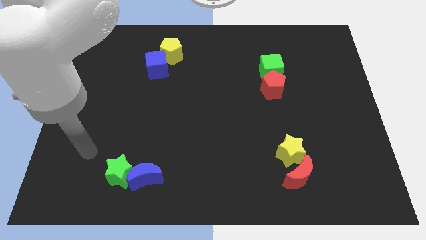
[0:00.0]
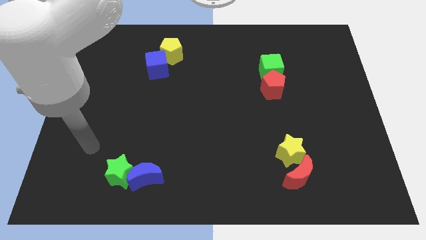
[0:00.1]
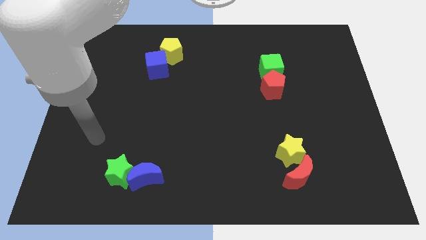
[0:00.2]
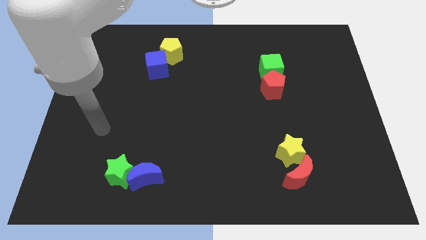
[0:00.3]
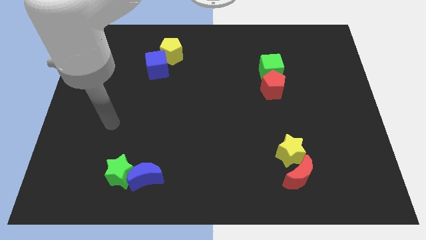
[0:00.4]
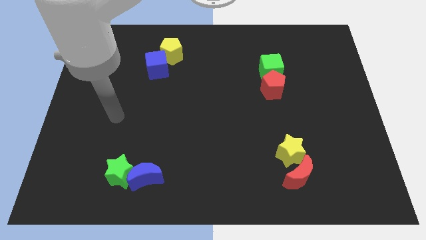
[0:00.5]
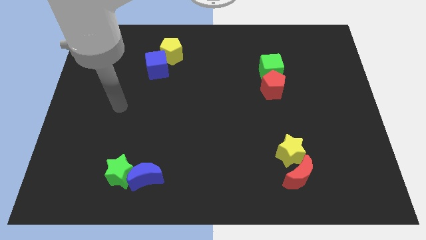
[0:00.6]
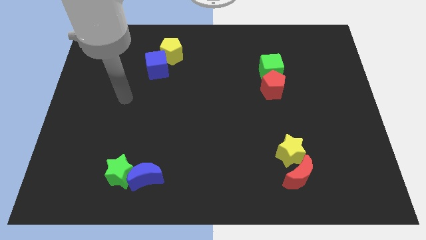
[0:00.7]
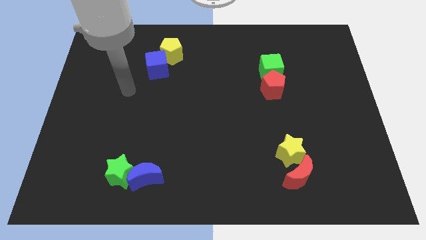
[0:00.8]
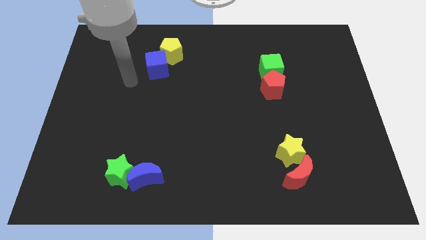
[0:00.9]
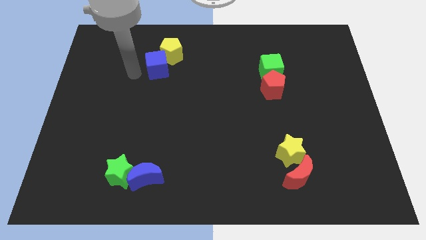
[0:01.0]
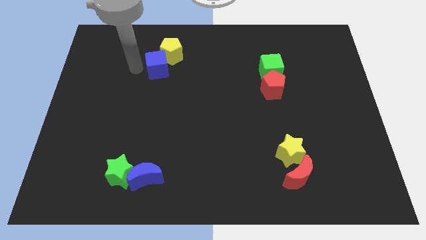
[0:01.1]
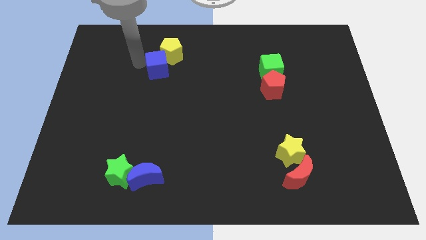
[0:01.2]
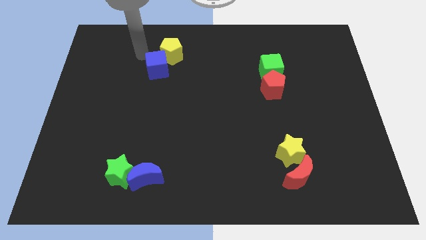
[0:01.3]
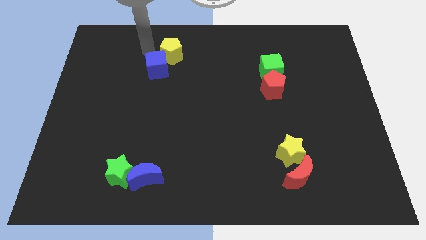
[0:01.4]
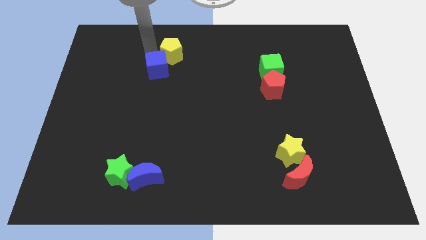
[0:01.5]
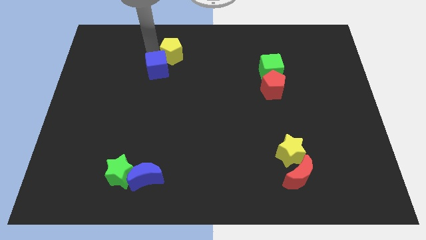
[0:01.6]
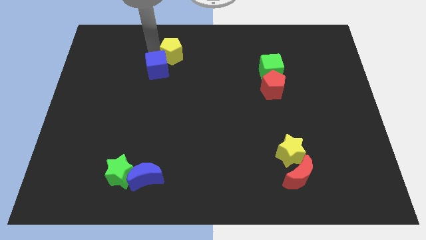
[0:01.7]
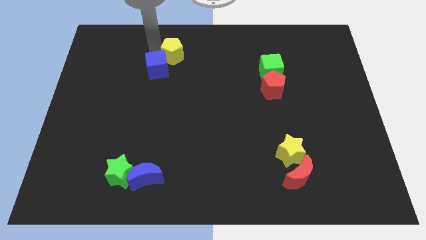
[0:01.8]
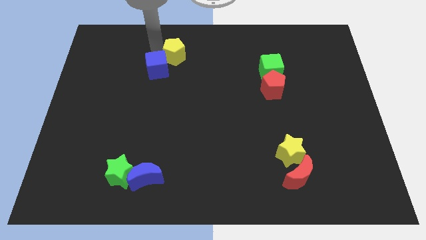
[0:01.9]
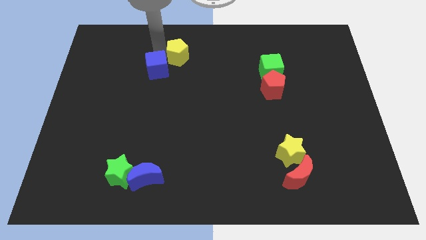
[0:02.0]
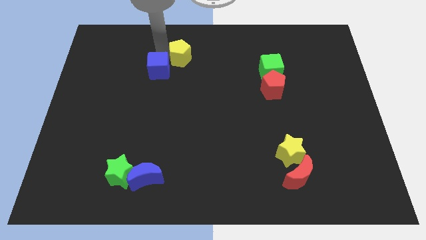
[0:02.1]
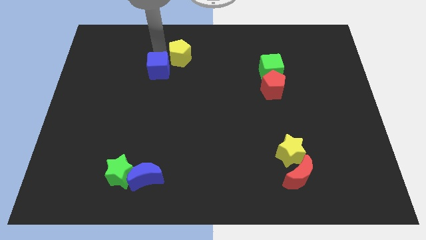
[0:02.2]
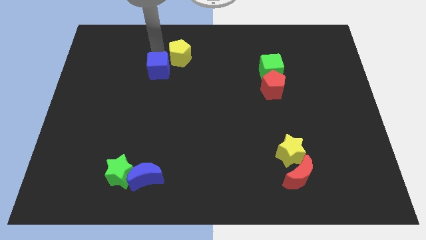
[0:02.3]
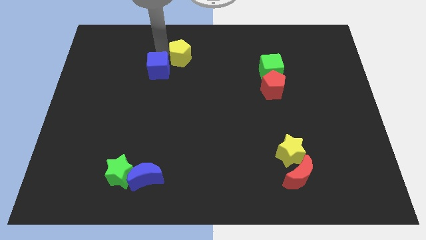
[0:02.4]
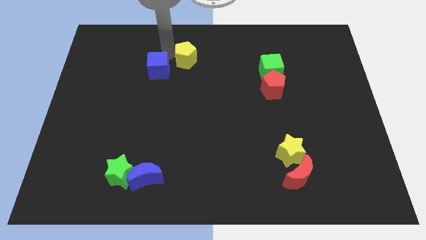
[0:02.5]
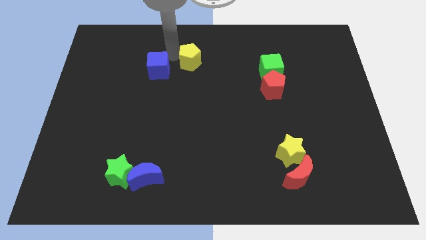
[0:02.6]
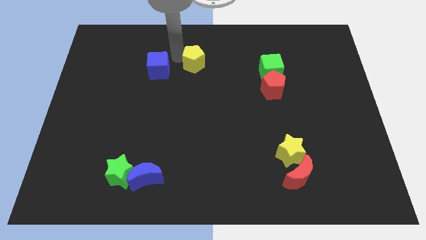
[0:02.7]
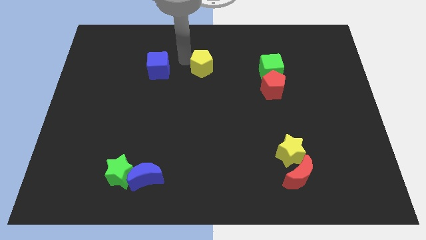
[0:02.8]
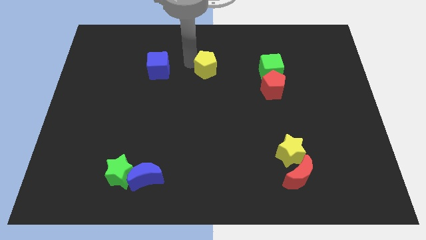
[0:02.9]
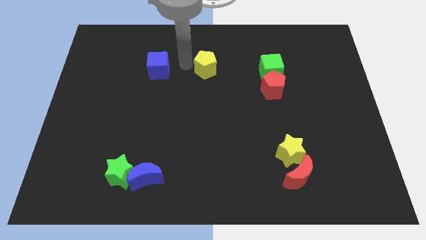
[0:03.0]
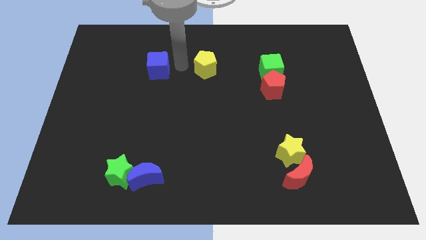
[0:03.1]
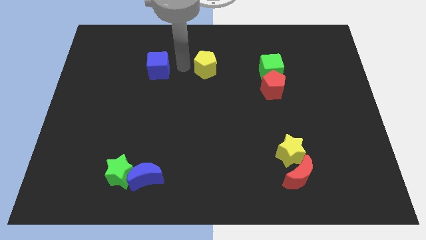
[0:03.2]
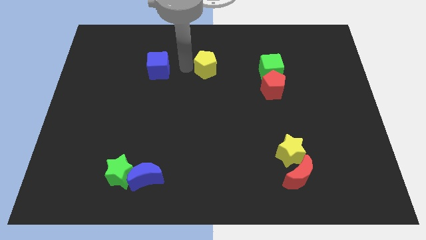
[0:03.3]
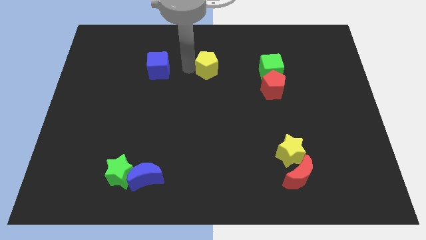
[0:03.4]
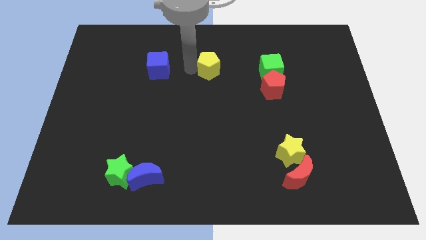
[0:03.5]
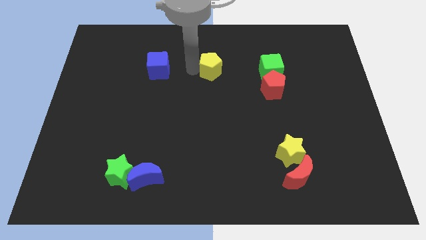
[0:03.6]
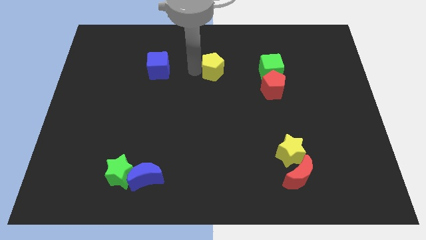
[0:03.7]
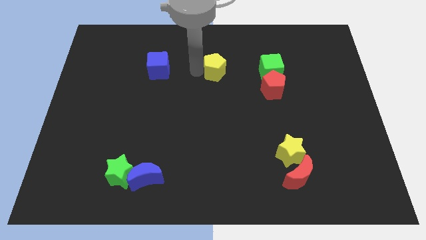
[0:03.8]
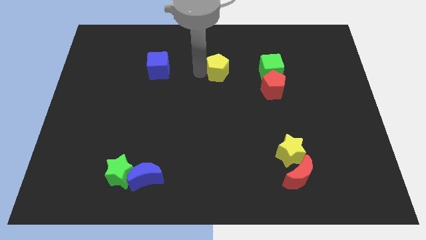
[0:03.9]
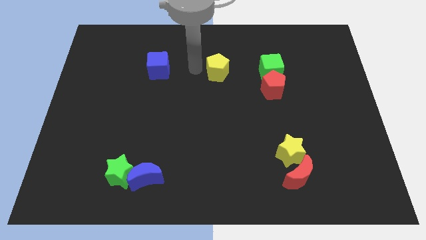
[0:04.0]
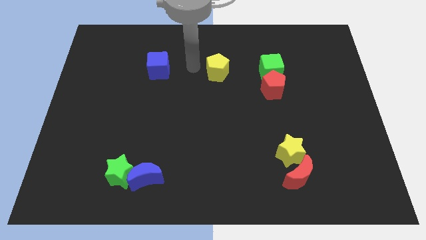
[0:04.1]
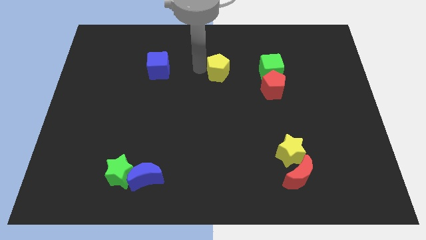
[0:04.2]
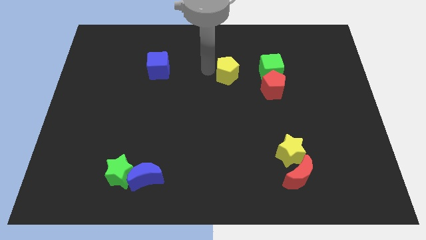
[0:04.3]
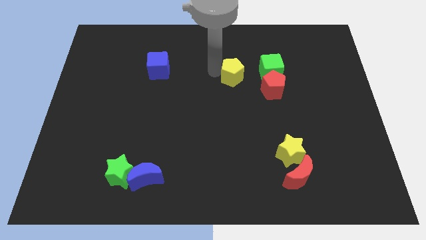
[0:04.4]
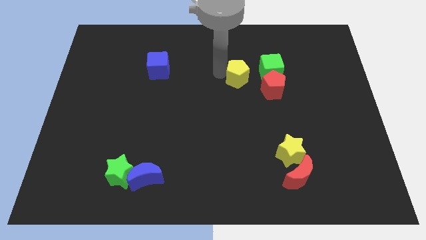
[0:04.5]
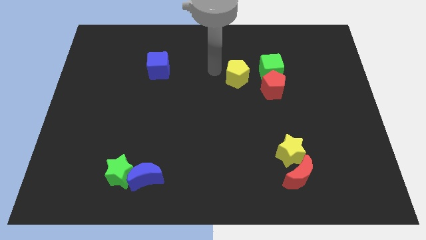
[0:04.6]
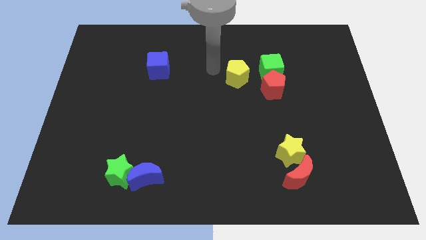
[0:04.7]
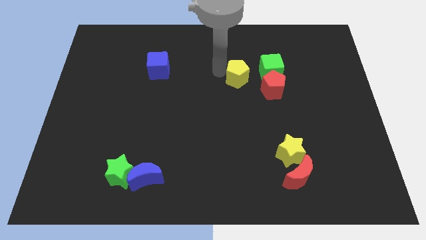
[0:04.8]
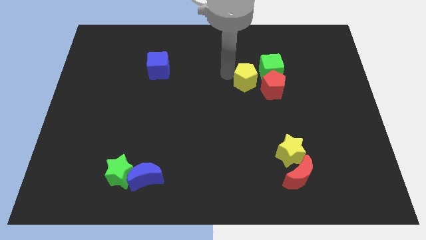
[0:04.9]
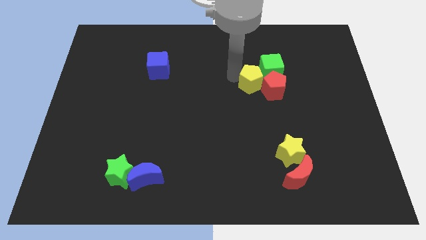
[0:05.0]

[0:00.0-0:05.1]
put the yellow pentagon towards the red pentagon

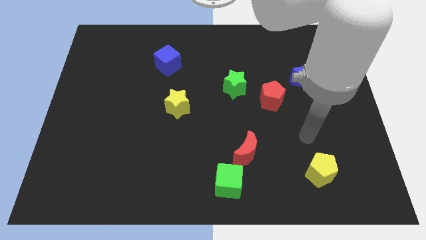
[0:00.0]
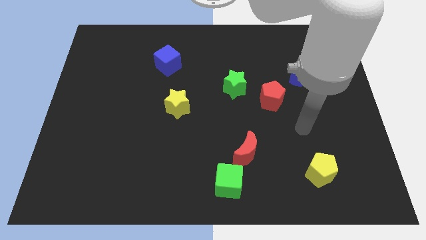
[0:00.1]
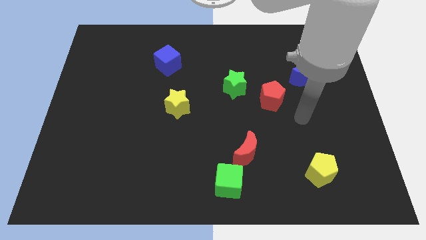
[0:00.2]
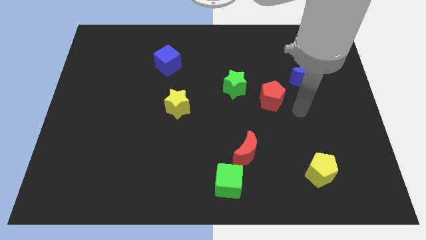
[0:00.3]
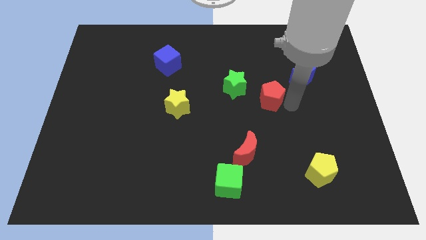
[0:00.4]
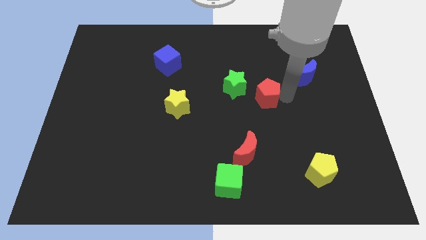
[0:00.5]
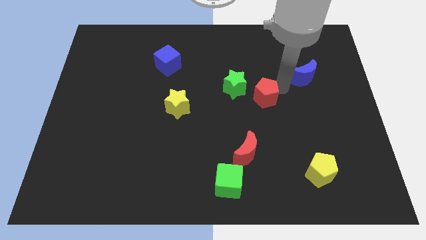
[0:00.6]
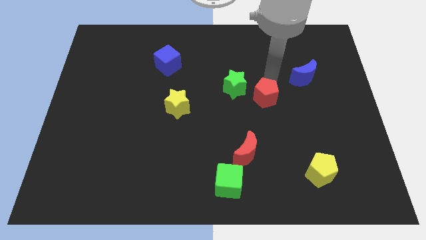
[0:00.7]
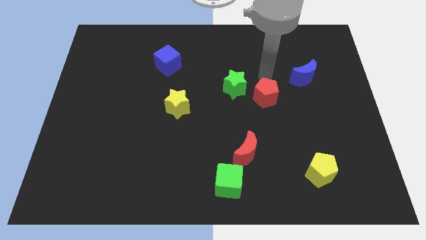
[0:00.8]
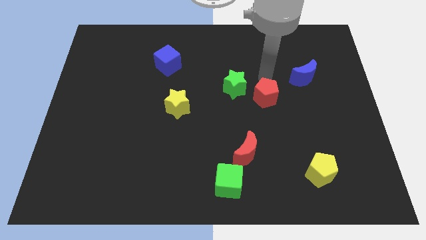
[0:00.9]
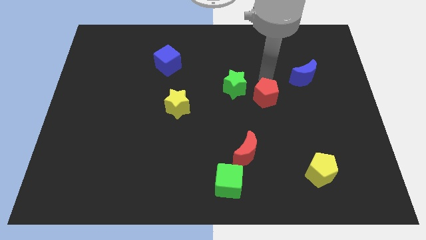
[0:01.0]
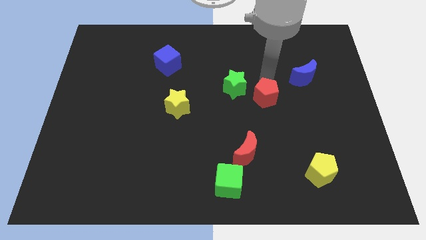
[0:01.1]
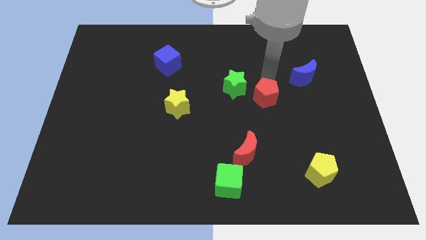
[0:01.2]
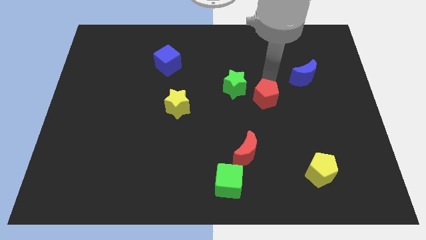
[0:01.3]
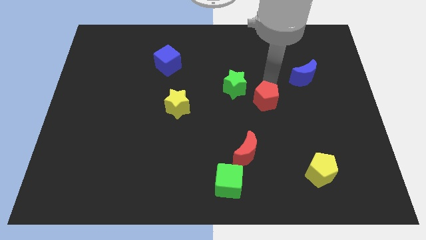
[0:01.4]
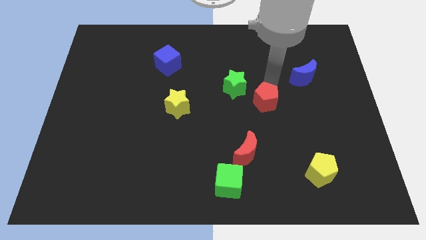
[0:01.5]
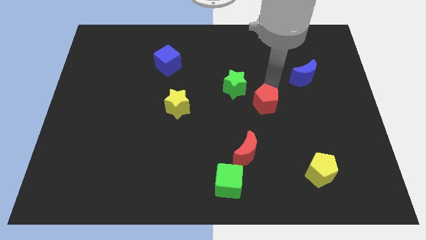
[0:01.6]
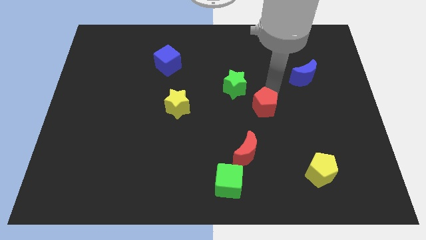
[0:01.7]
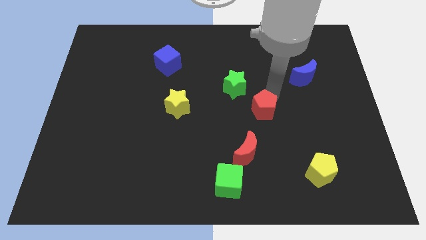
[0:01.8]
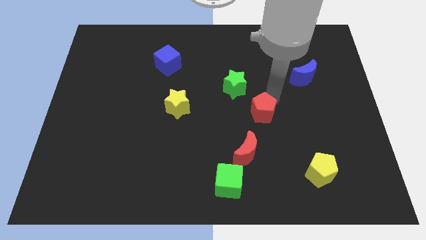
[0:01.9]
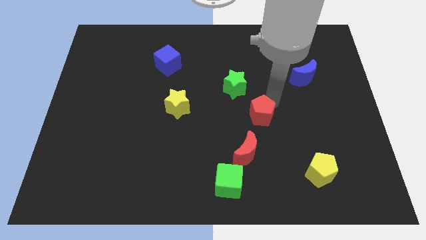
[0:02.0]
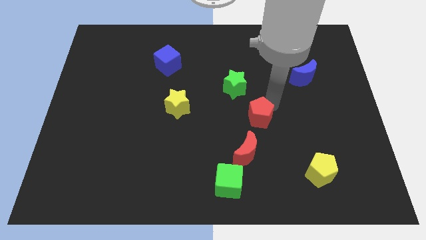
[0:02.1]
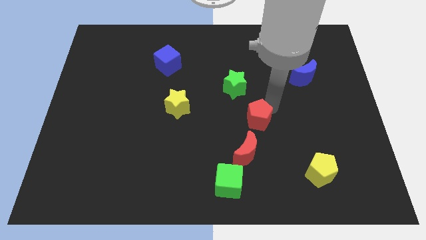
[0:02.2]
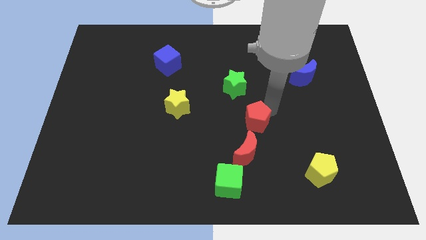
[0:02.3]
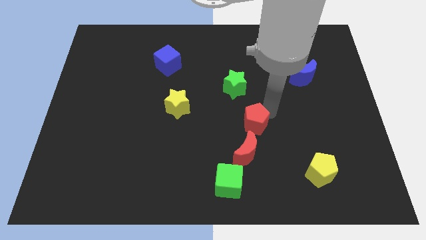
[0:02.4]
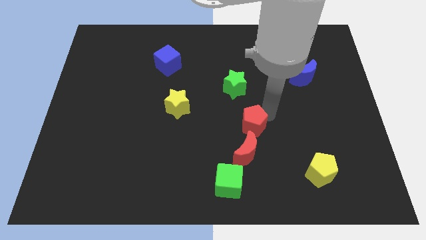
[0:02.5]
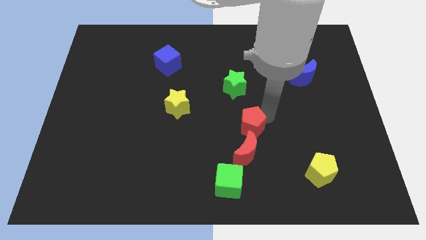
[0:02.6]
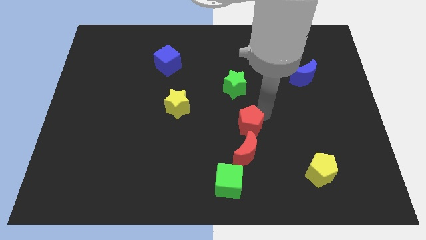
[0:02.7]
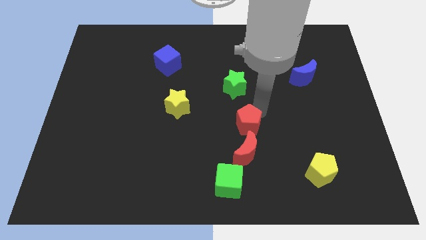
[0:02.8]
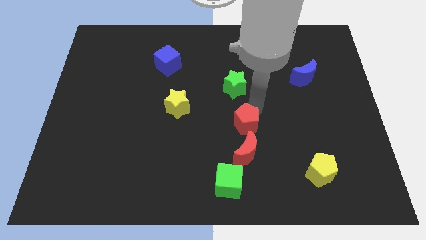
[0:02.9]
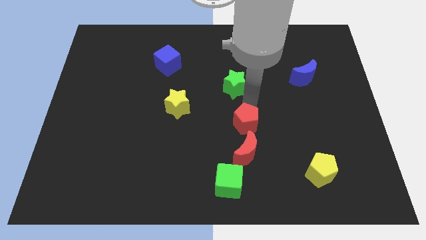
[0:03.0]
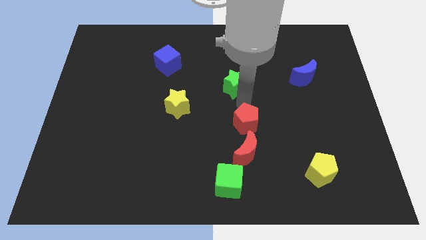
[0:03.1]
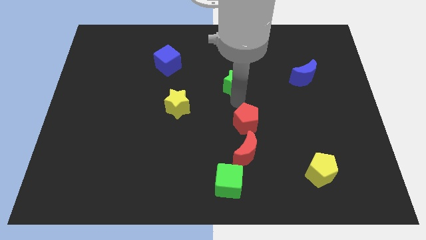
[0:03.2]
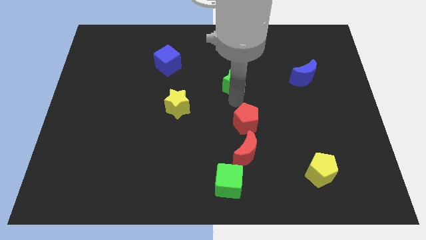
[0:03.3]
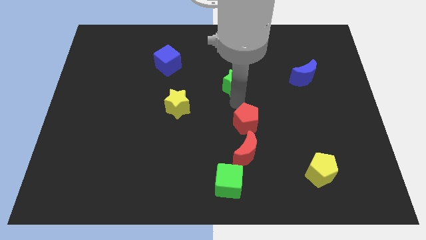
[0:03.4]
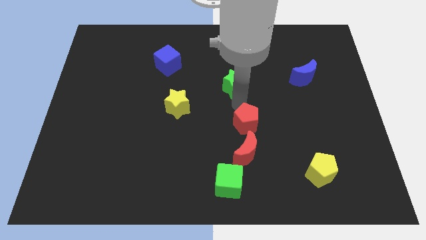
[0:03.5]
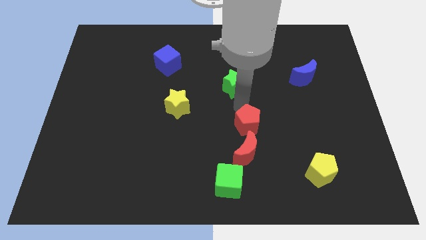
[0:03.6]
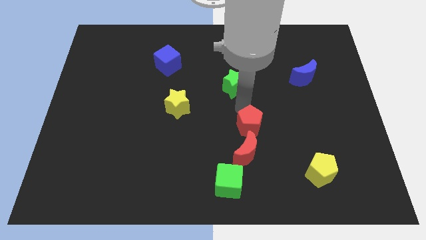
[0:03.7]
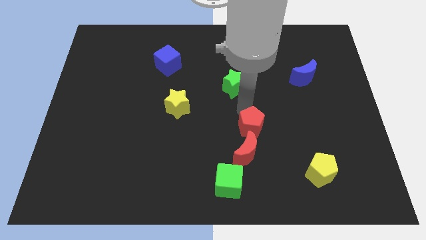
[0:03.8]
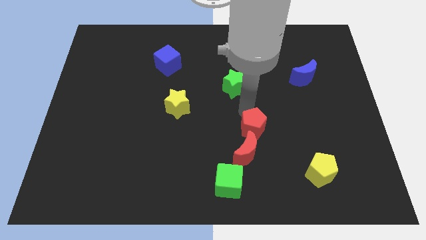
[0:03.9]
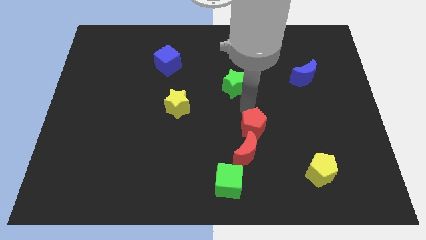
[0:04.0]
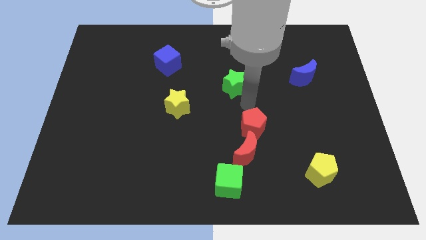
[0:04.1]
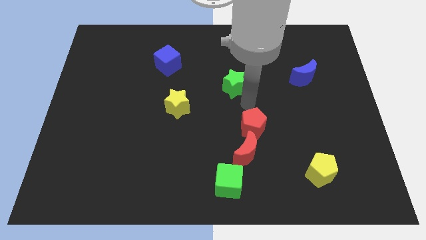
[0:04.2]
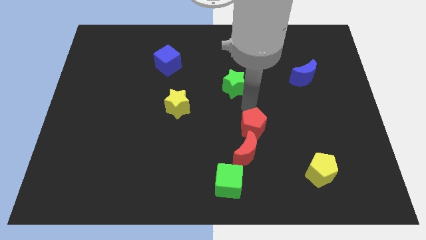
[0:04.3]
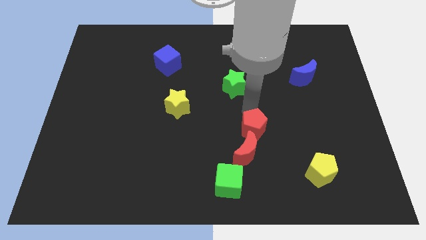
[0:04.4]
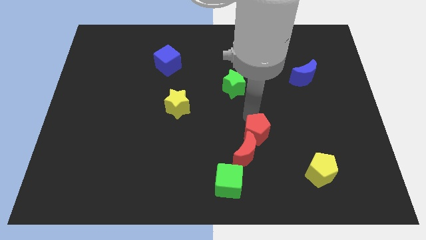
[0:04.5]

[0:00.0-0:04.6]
push the red pentagon next to the red moon
